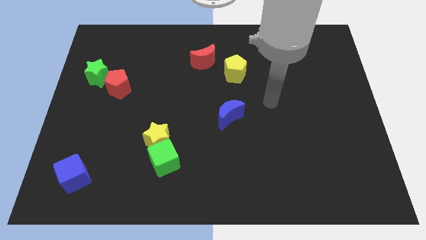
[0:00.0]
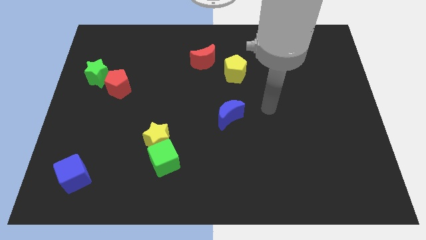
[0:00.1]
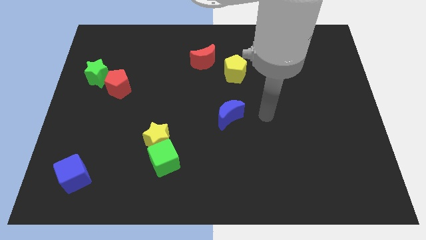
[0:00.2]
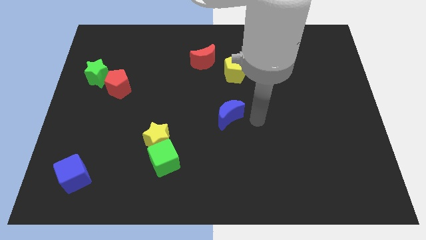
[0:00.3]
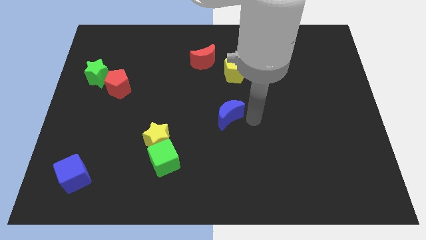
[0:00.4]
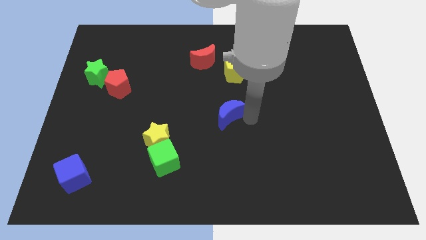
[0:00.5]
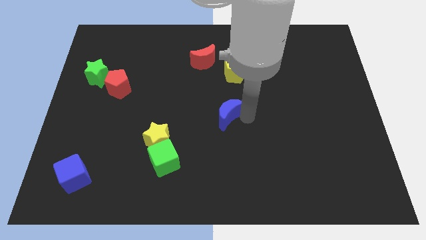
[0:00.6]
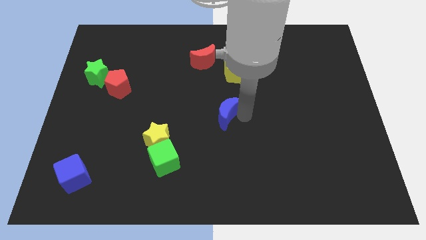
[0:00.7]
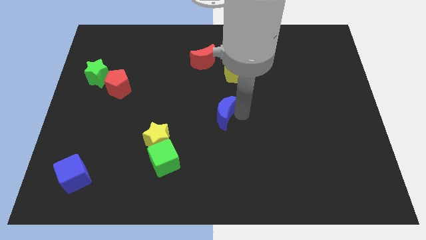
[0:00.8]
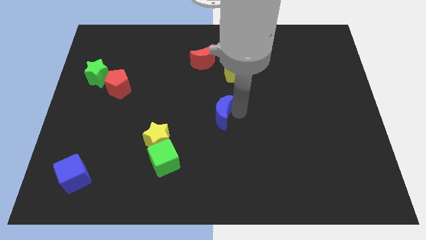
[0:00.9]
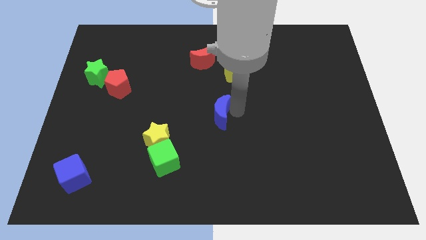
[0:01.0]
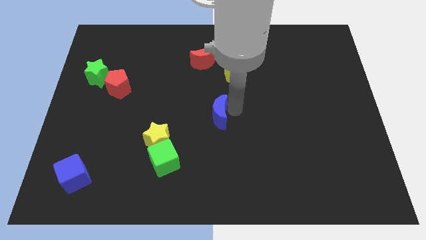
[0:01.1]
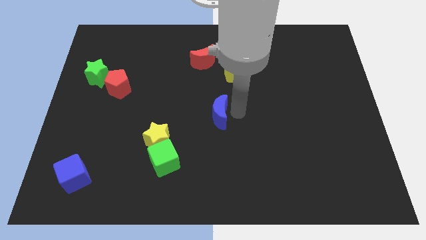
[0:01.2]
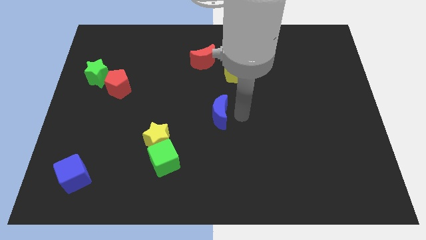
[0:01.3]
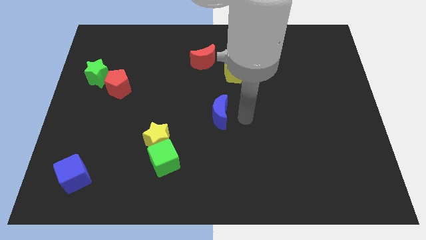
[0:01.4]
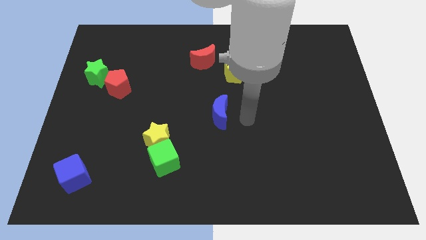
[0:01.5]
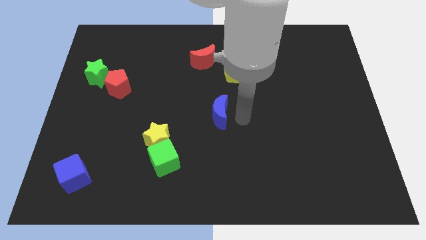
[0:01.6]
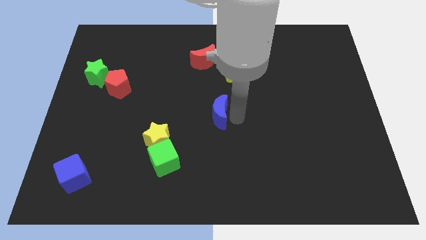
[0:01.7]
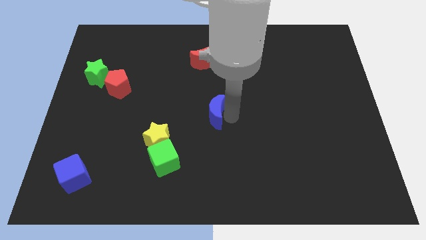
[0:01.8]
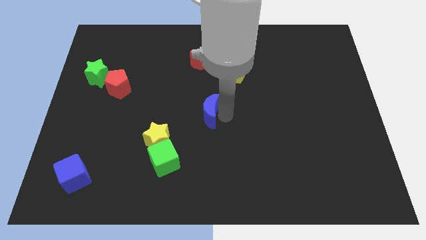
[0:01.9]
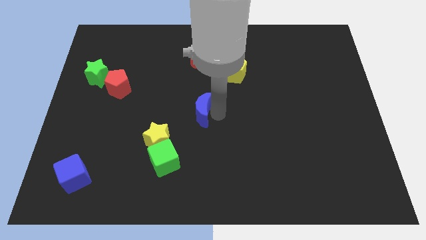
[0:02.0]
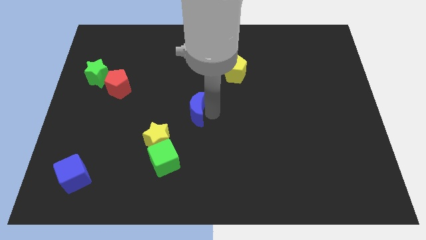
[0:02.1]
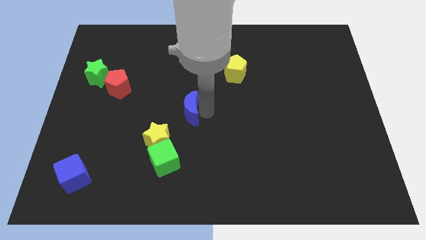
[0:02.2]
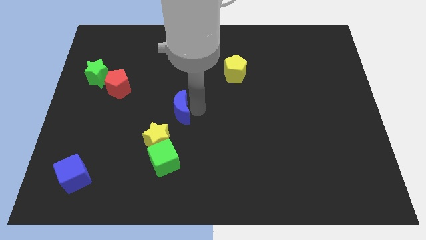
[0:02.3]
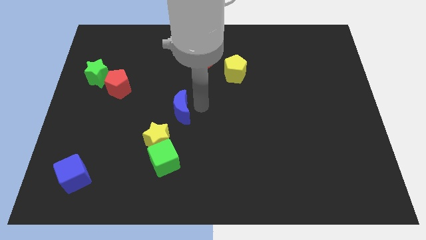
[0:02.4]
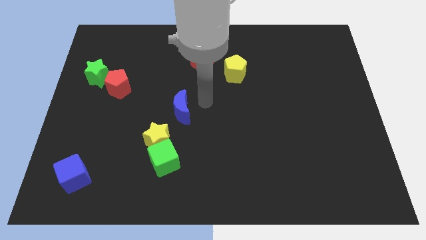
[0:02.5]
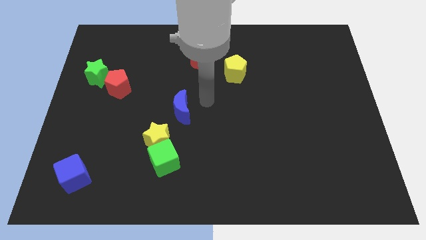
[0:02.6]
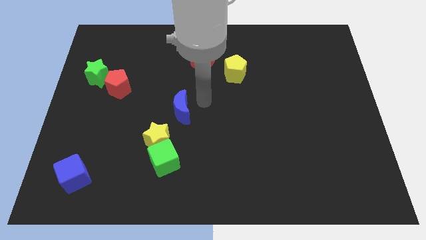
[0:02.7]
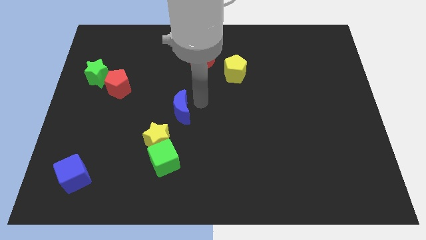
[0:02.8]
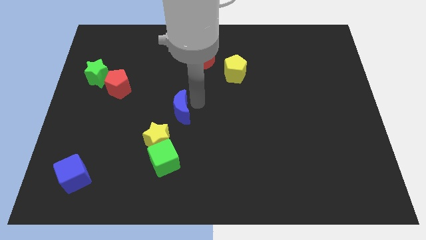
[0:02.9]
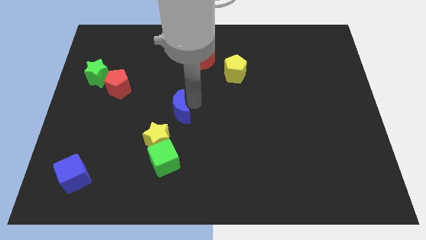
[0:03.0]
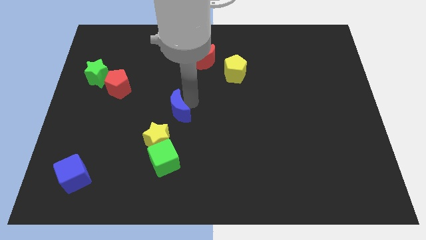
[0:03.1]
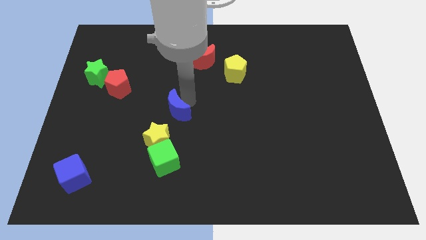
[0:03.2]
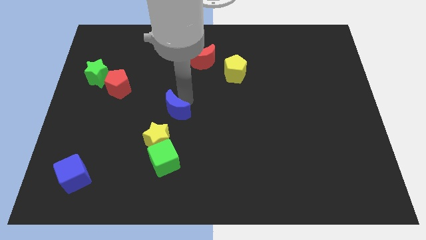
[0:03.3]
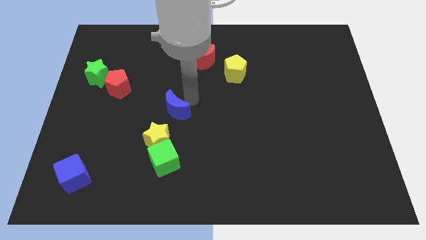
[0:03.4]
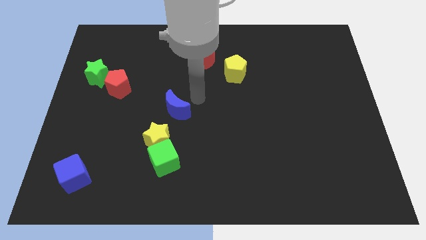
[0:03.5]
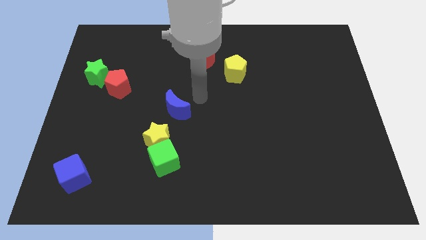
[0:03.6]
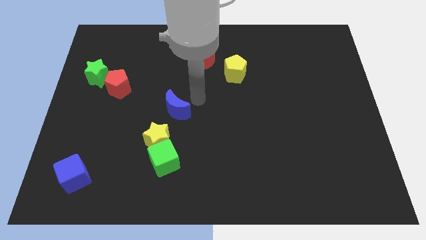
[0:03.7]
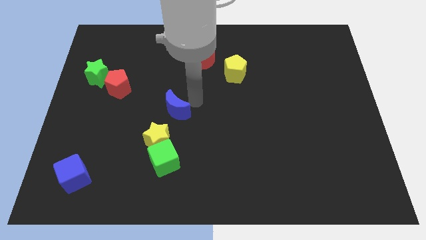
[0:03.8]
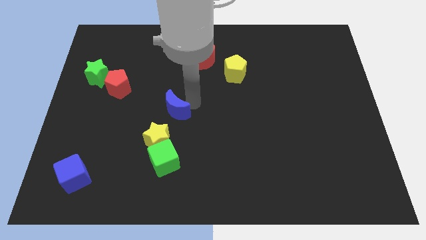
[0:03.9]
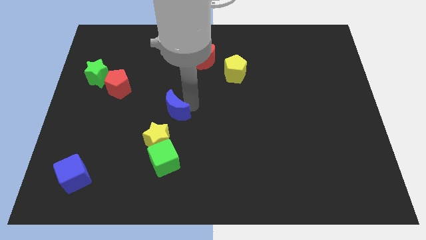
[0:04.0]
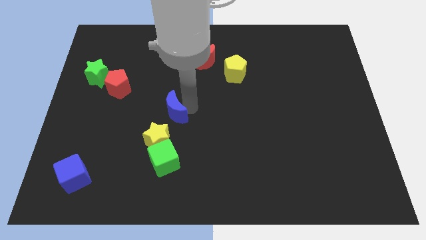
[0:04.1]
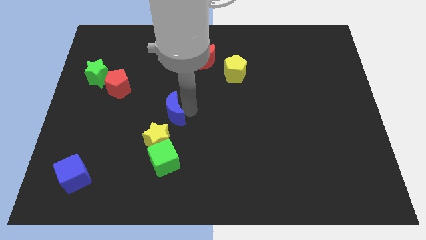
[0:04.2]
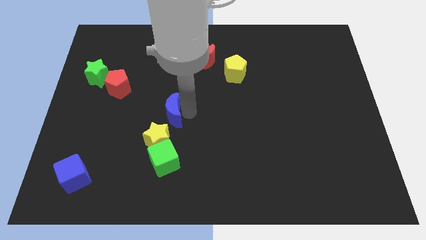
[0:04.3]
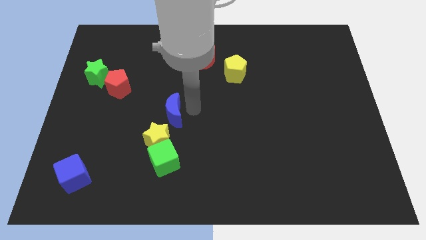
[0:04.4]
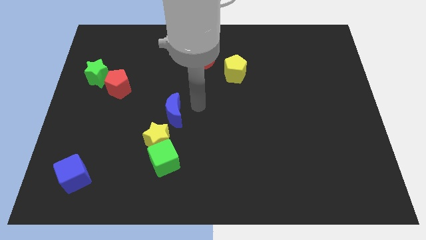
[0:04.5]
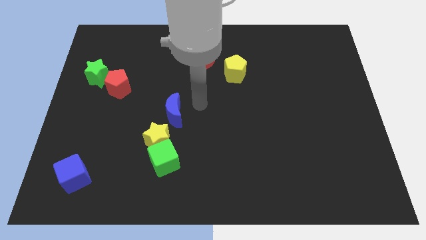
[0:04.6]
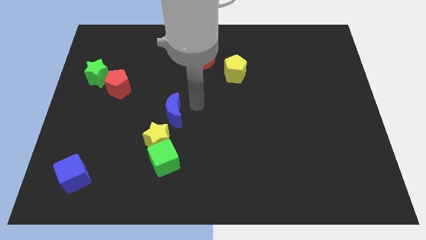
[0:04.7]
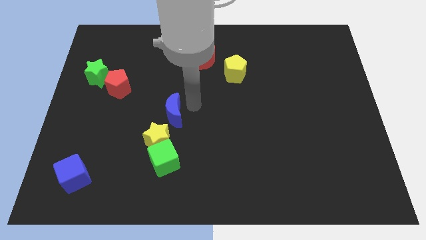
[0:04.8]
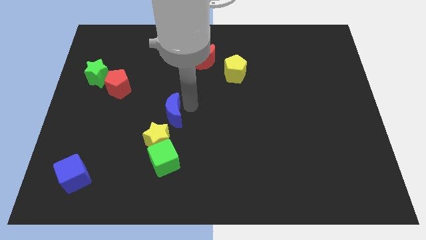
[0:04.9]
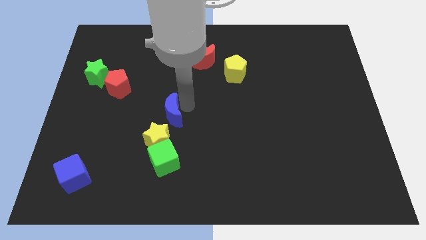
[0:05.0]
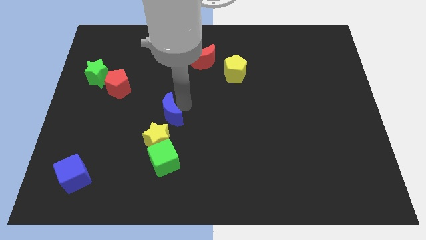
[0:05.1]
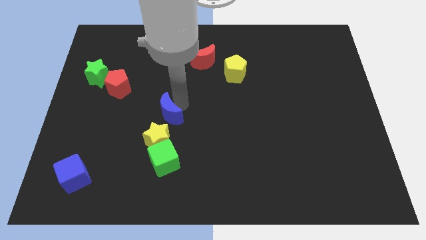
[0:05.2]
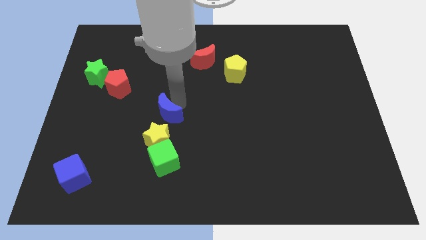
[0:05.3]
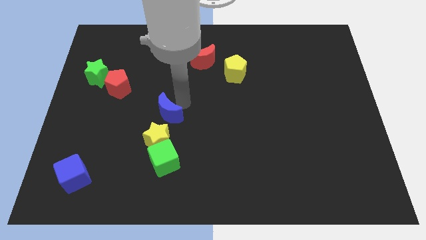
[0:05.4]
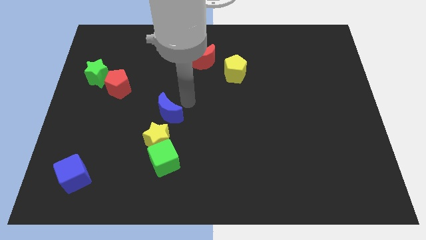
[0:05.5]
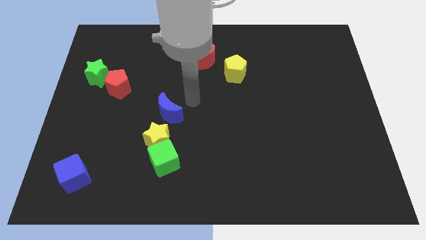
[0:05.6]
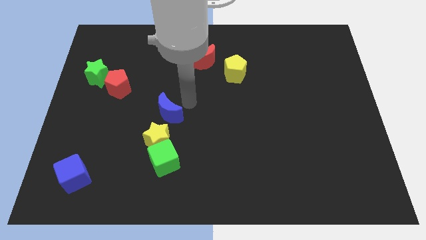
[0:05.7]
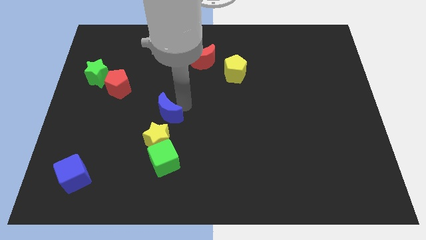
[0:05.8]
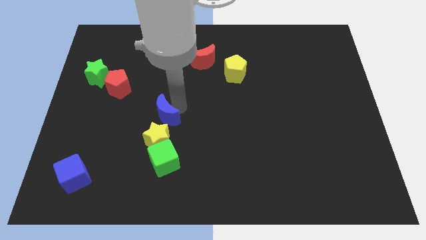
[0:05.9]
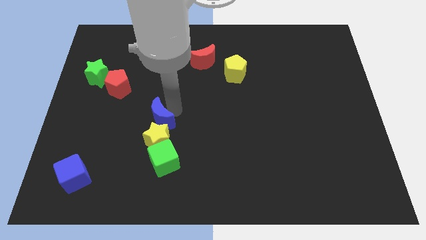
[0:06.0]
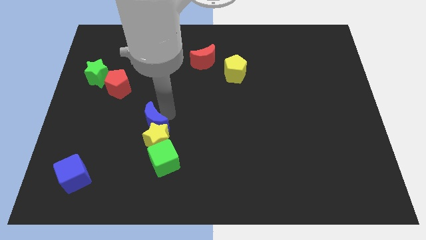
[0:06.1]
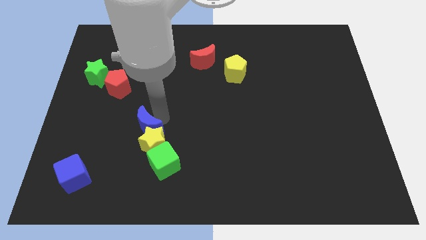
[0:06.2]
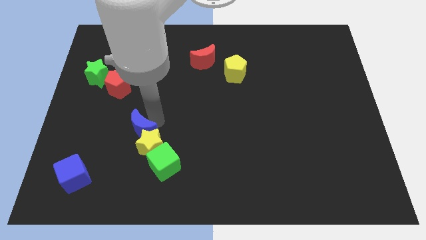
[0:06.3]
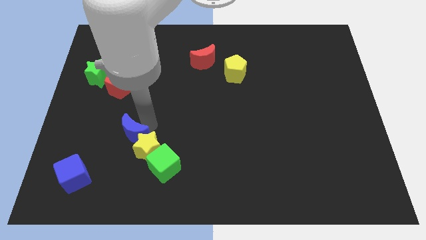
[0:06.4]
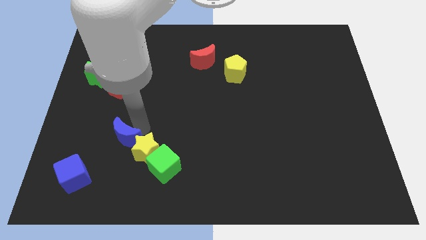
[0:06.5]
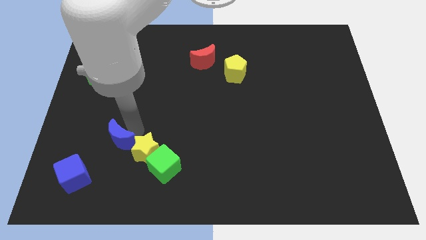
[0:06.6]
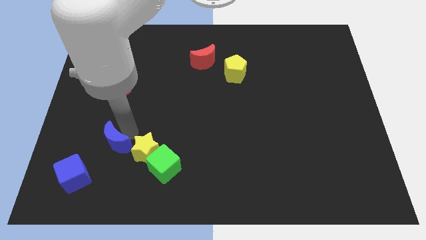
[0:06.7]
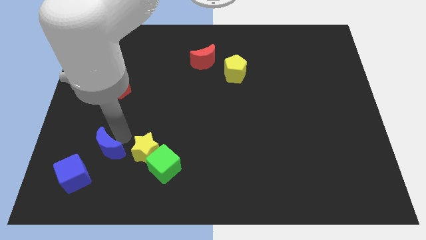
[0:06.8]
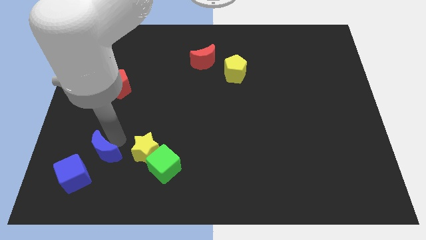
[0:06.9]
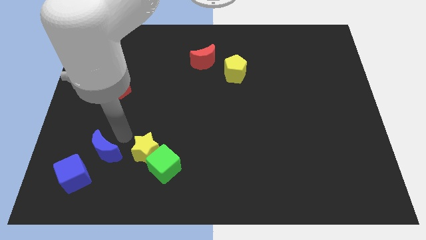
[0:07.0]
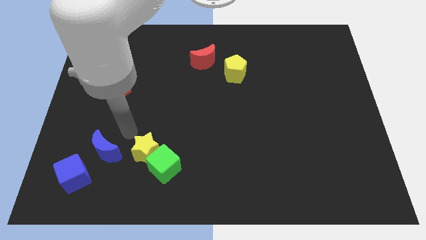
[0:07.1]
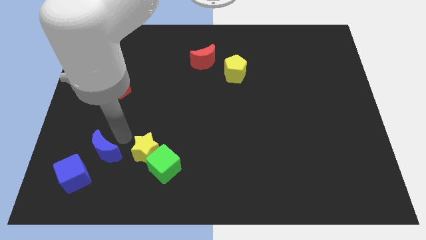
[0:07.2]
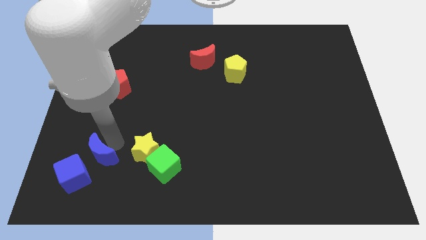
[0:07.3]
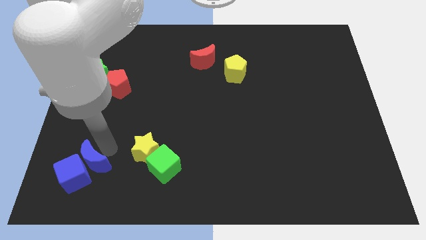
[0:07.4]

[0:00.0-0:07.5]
move the blue moon next to the blue cube
